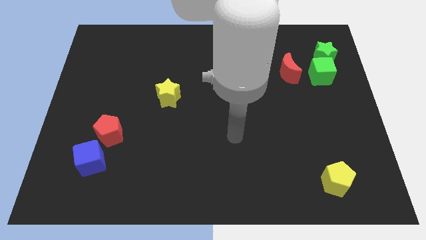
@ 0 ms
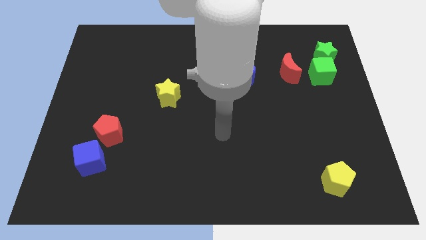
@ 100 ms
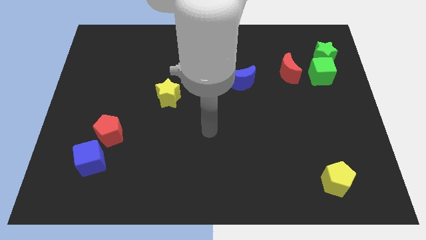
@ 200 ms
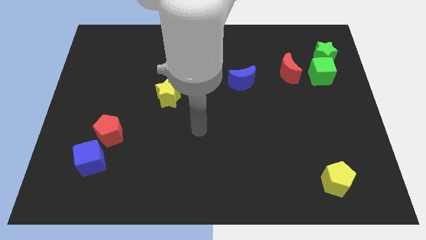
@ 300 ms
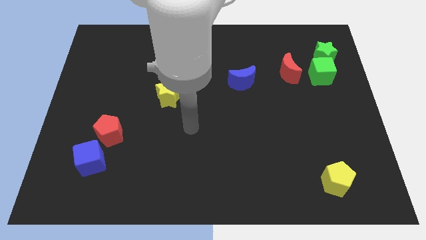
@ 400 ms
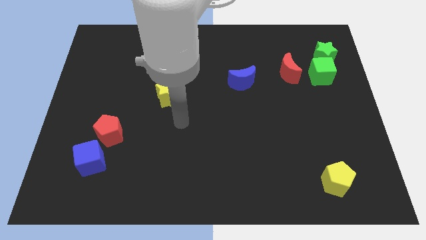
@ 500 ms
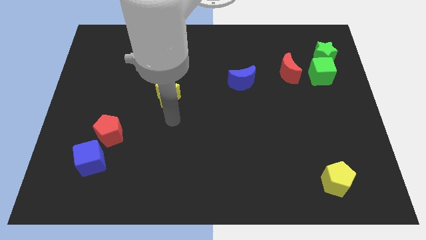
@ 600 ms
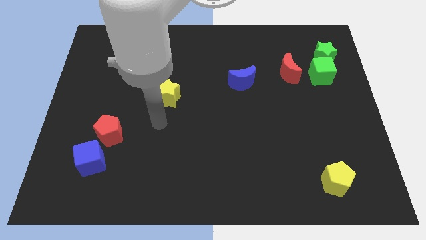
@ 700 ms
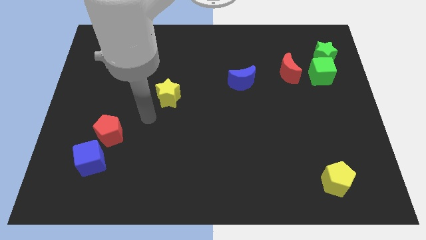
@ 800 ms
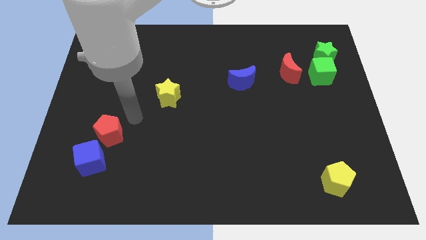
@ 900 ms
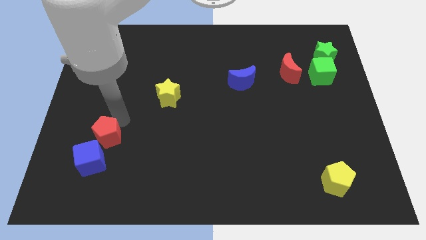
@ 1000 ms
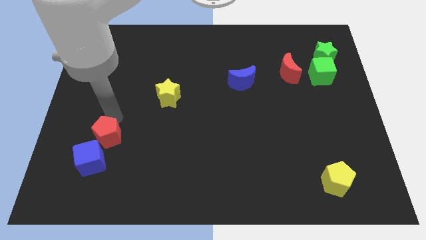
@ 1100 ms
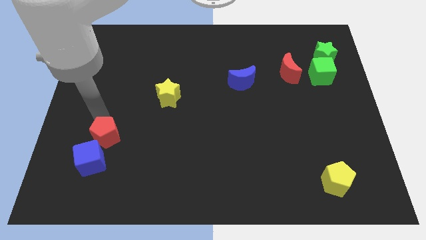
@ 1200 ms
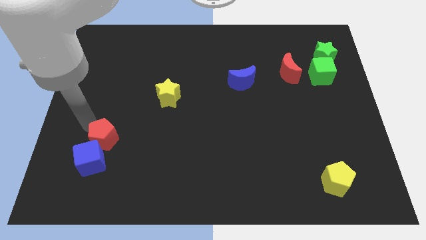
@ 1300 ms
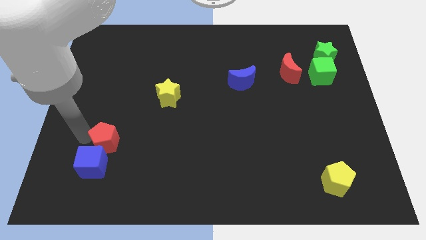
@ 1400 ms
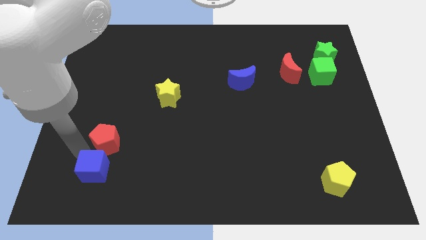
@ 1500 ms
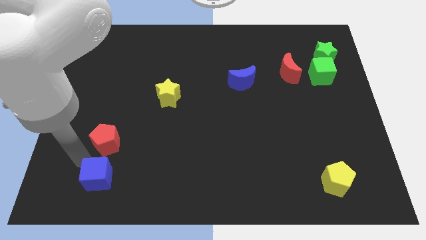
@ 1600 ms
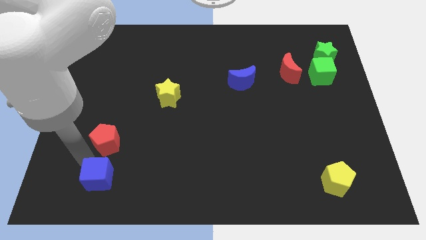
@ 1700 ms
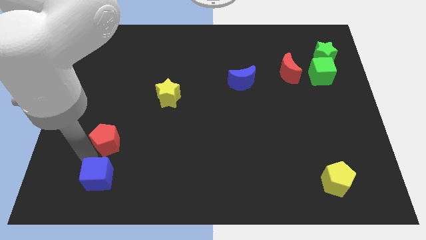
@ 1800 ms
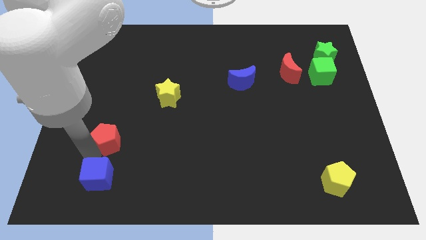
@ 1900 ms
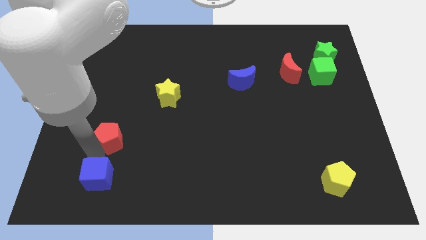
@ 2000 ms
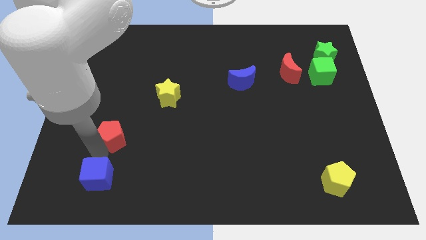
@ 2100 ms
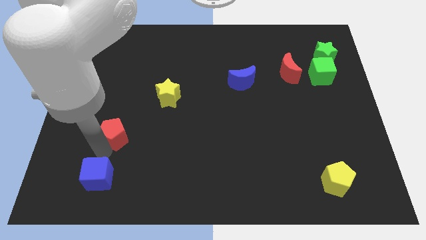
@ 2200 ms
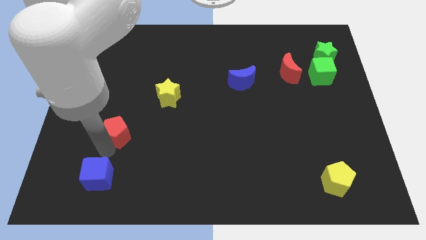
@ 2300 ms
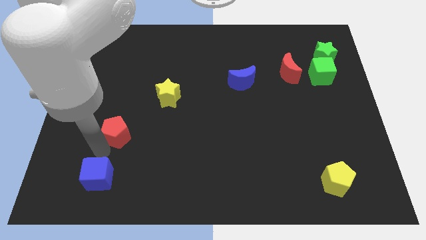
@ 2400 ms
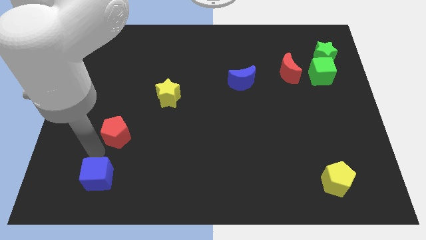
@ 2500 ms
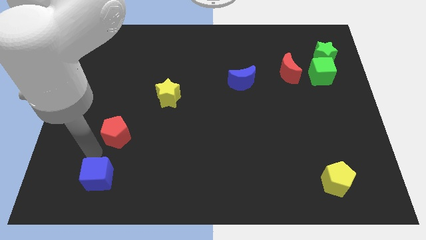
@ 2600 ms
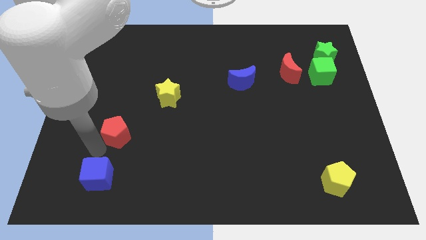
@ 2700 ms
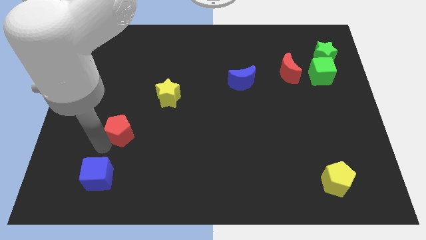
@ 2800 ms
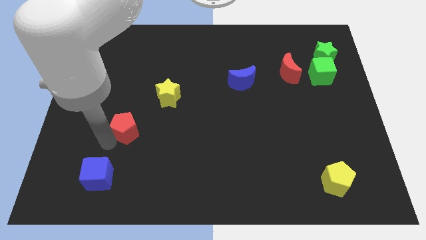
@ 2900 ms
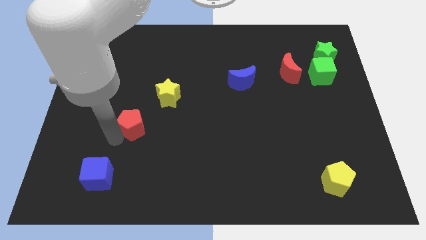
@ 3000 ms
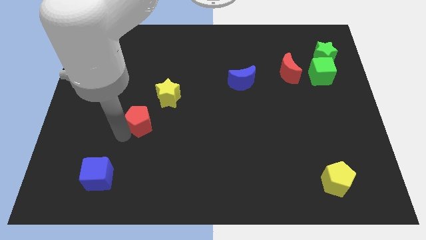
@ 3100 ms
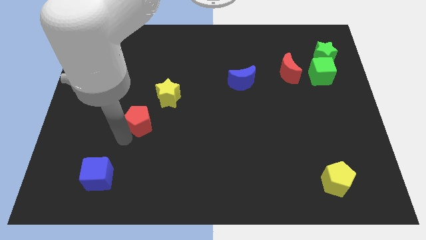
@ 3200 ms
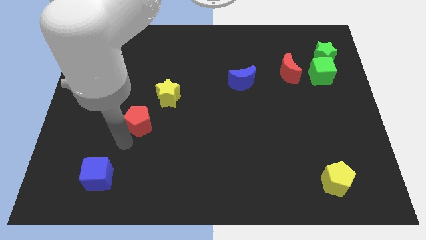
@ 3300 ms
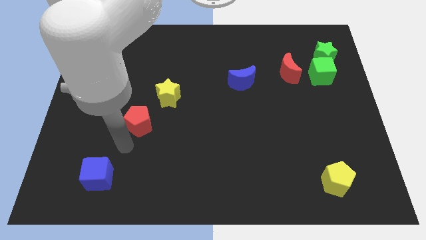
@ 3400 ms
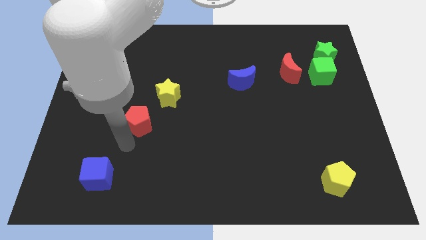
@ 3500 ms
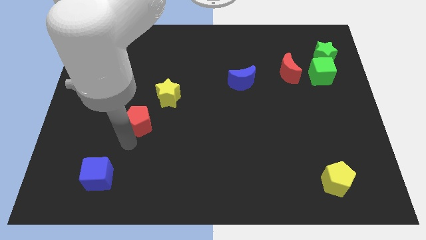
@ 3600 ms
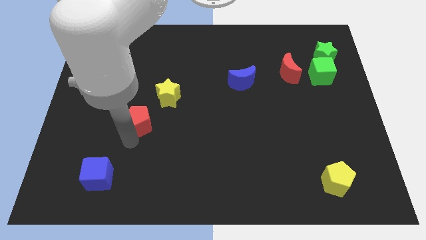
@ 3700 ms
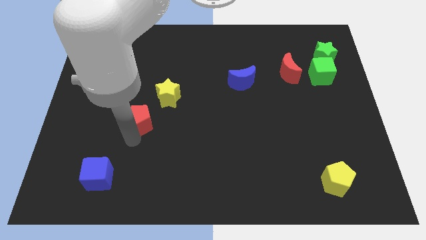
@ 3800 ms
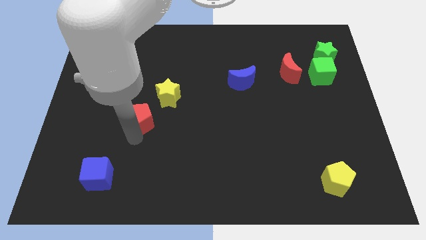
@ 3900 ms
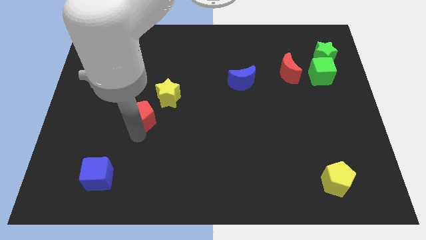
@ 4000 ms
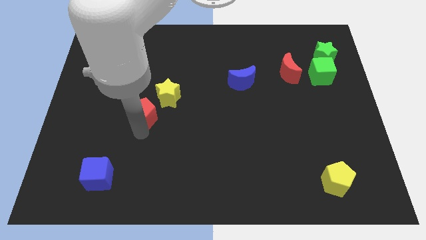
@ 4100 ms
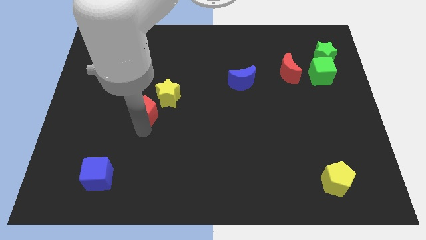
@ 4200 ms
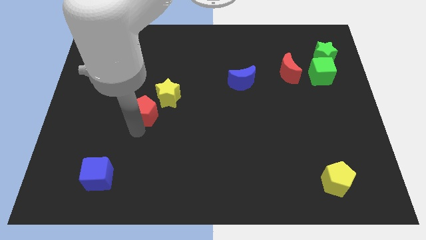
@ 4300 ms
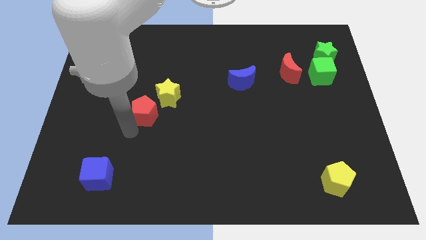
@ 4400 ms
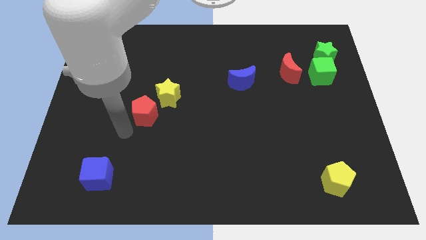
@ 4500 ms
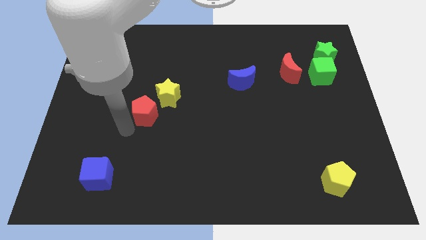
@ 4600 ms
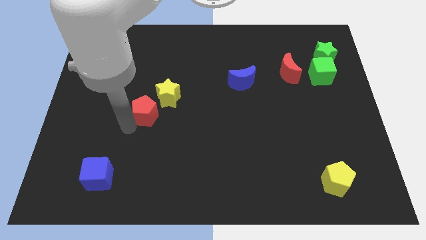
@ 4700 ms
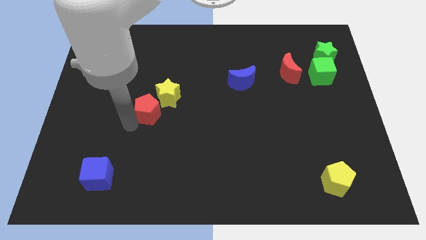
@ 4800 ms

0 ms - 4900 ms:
slide the red pentagon to the yellow star

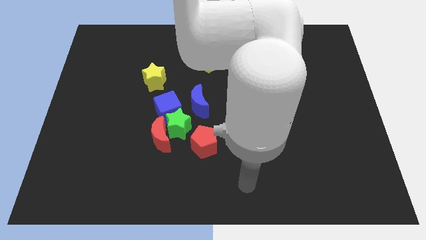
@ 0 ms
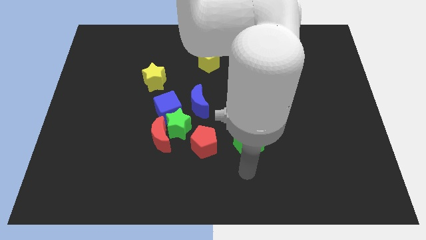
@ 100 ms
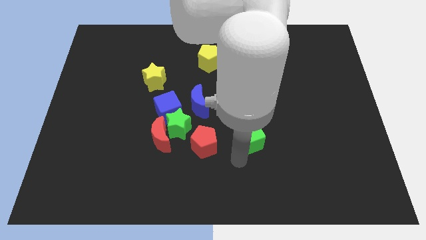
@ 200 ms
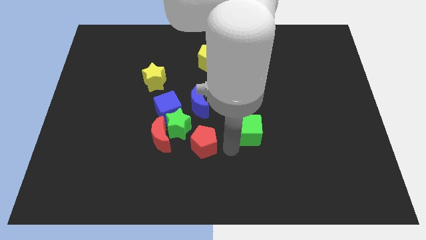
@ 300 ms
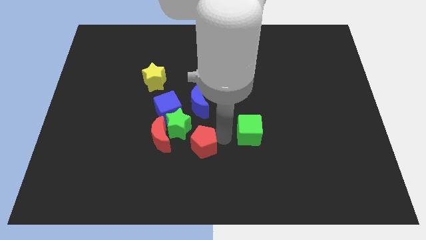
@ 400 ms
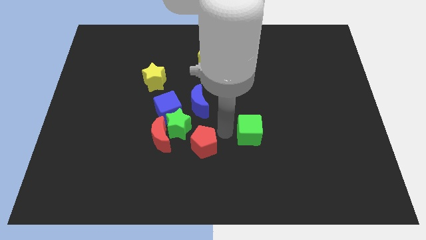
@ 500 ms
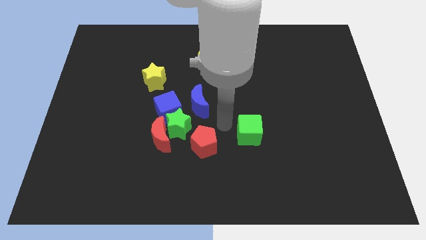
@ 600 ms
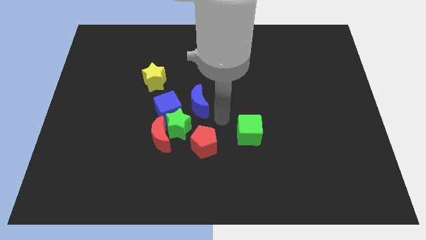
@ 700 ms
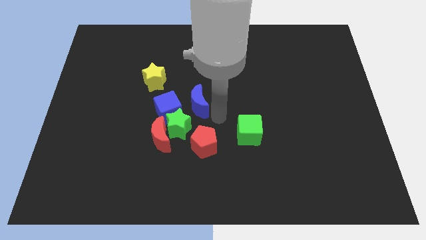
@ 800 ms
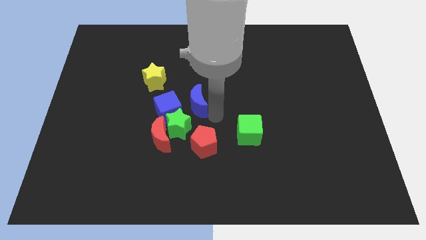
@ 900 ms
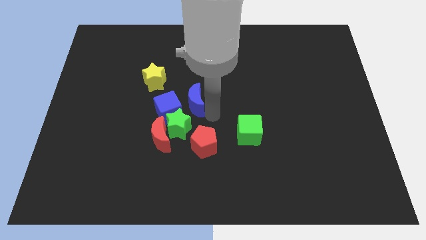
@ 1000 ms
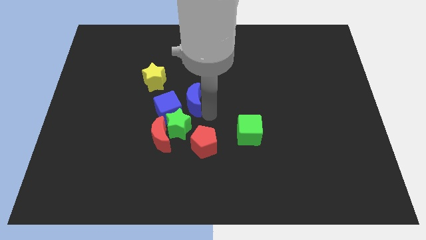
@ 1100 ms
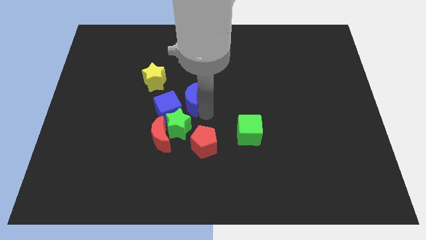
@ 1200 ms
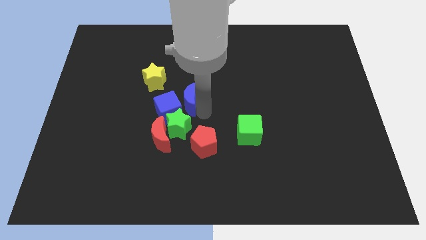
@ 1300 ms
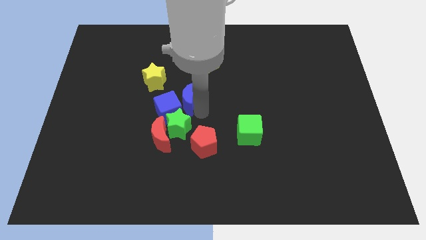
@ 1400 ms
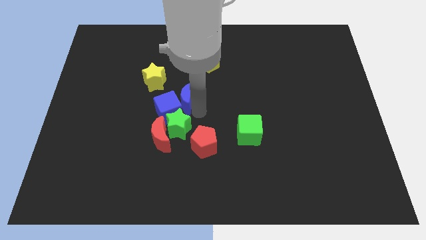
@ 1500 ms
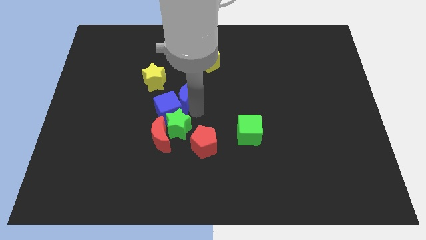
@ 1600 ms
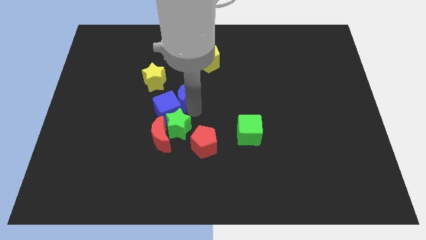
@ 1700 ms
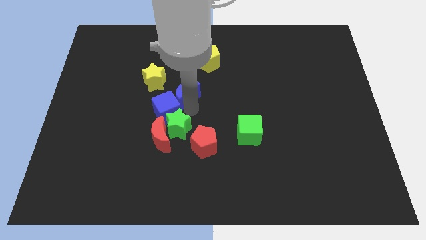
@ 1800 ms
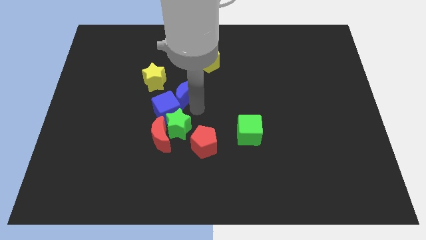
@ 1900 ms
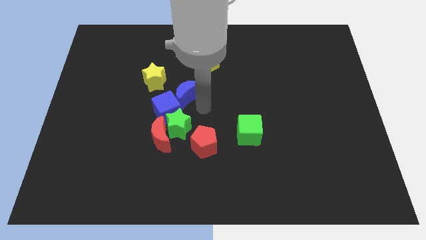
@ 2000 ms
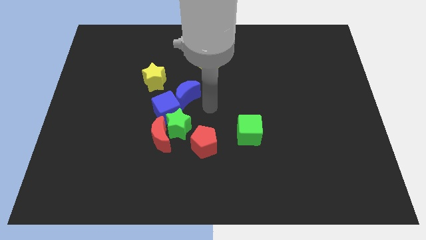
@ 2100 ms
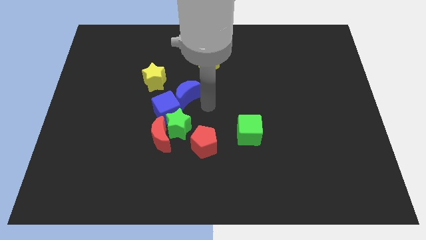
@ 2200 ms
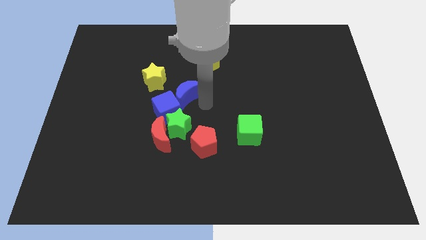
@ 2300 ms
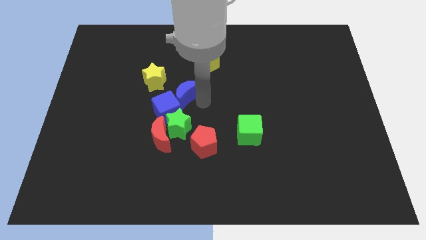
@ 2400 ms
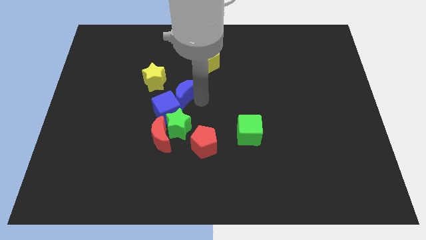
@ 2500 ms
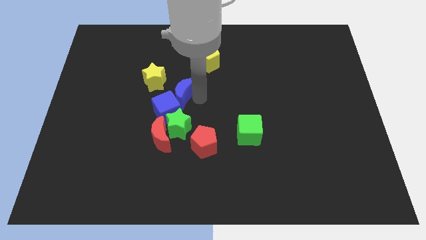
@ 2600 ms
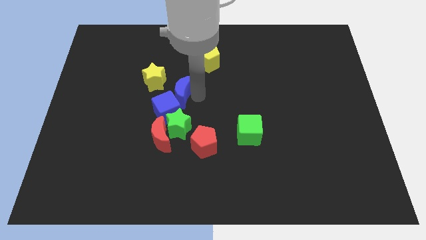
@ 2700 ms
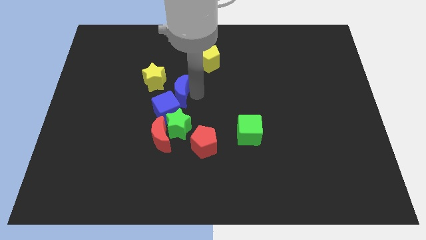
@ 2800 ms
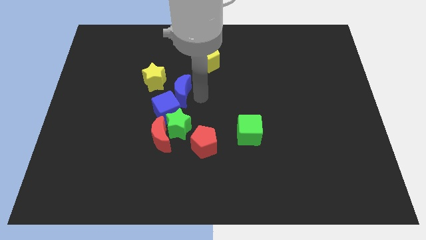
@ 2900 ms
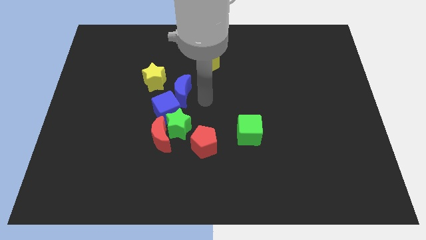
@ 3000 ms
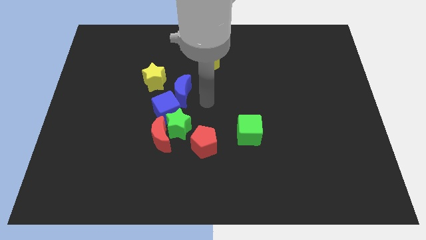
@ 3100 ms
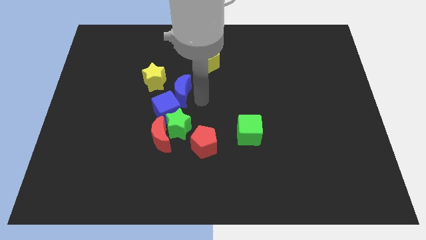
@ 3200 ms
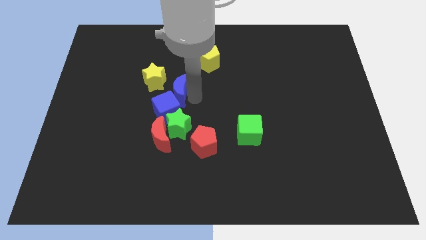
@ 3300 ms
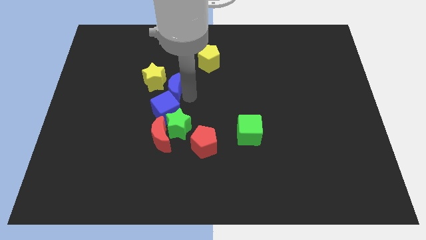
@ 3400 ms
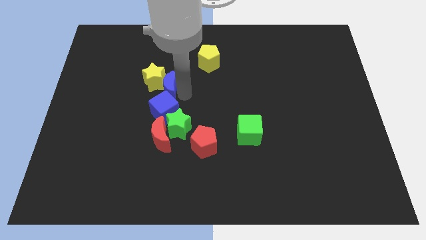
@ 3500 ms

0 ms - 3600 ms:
push the blue moon close to the yellow star
